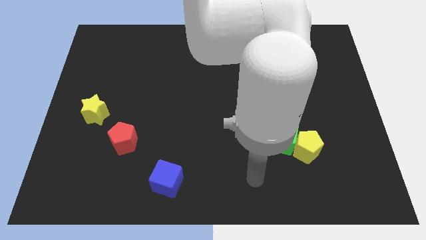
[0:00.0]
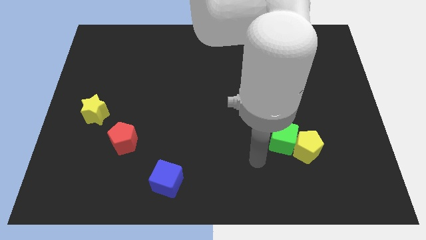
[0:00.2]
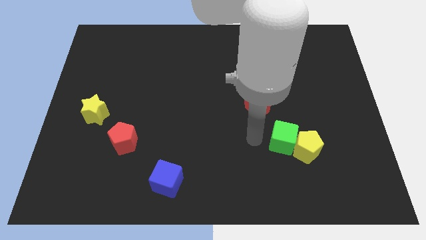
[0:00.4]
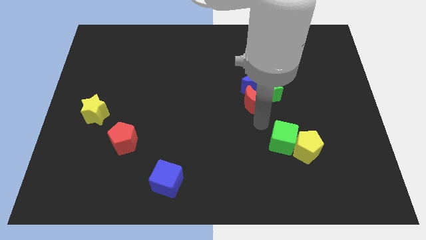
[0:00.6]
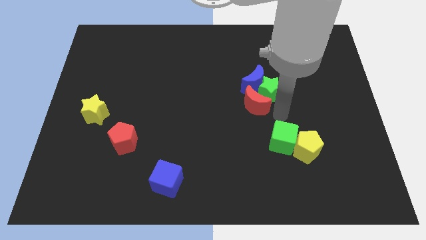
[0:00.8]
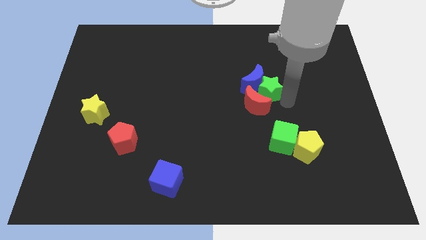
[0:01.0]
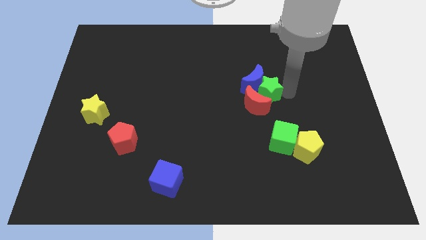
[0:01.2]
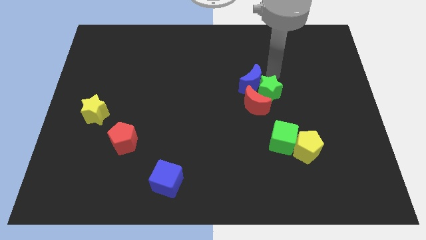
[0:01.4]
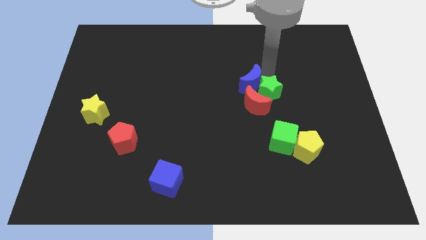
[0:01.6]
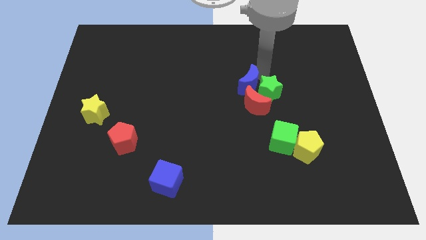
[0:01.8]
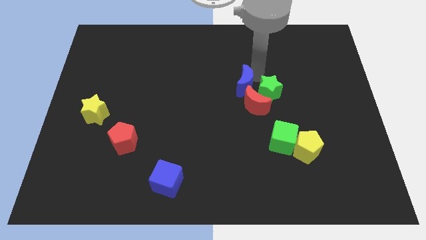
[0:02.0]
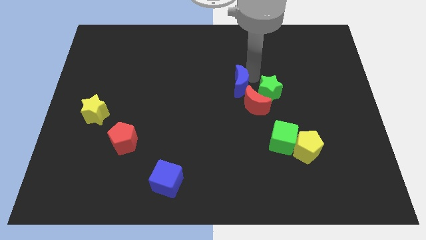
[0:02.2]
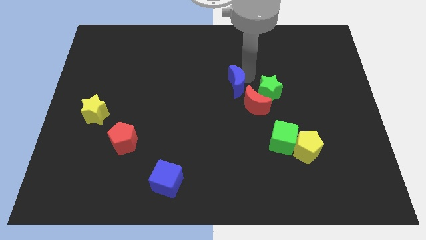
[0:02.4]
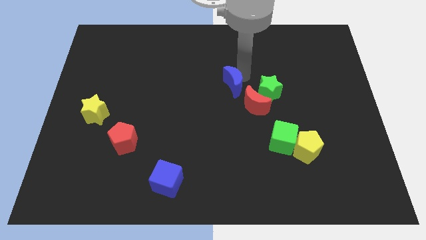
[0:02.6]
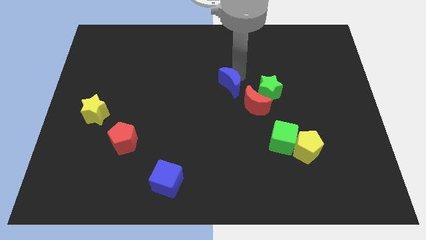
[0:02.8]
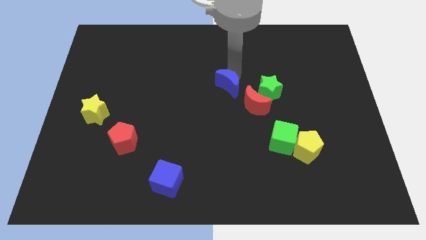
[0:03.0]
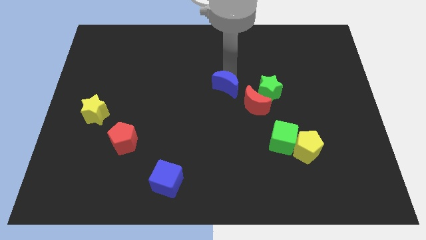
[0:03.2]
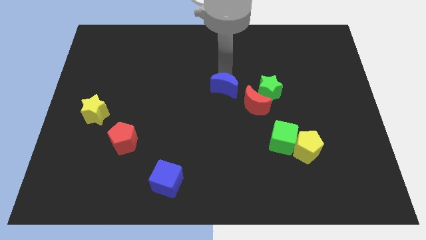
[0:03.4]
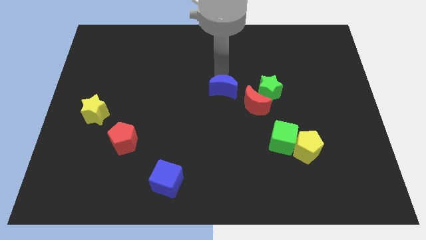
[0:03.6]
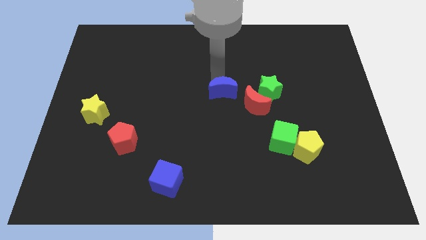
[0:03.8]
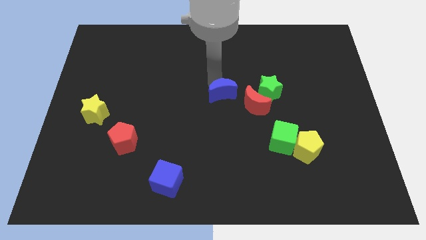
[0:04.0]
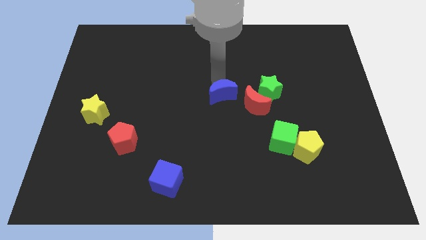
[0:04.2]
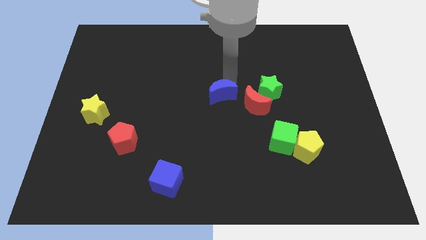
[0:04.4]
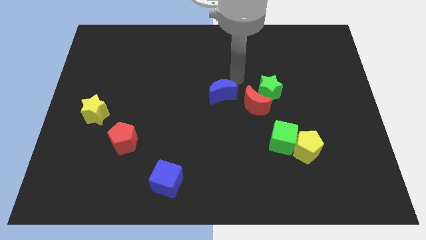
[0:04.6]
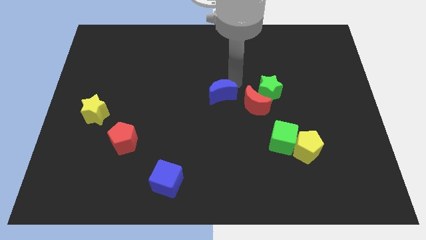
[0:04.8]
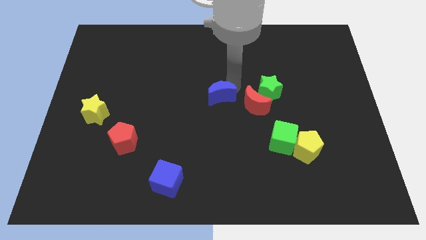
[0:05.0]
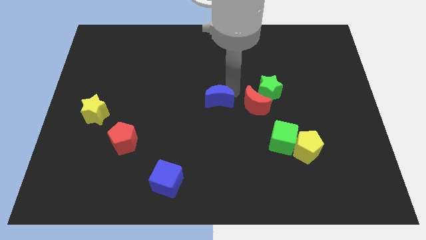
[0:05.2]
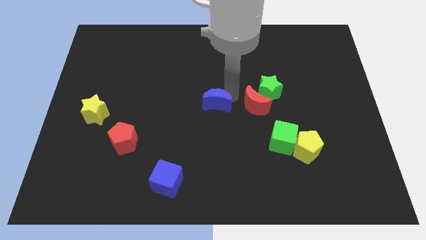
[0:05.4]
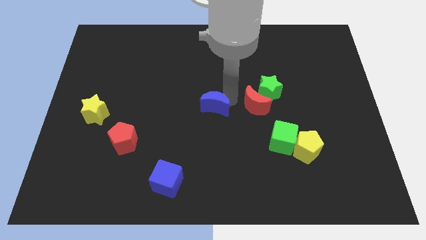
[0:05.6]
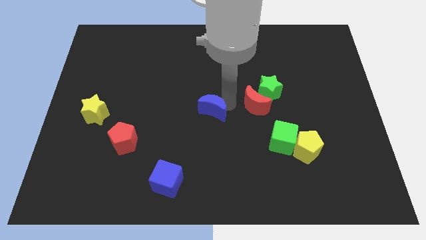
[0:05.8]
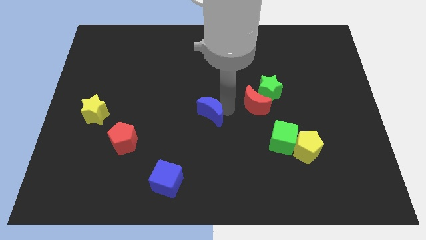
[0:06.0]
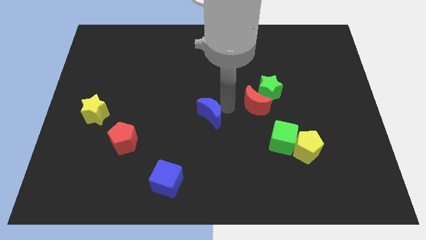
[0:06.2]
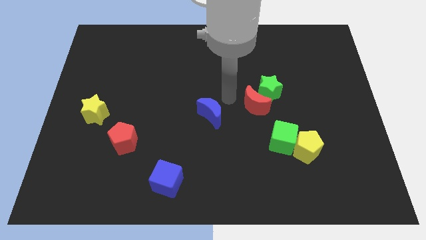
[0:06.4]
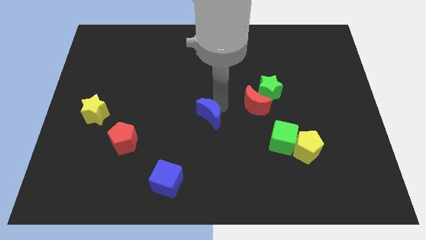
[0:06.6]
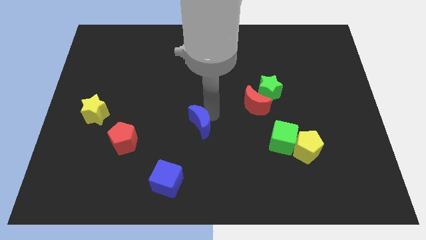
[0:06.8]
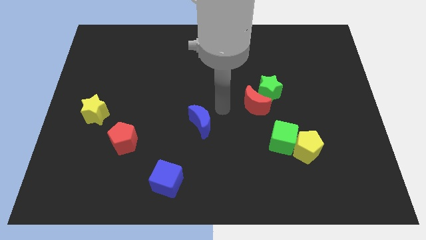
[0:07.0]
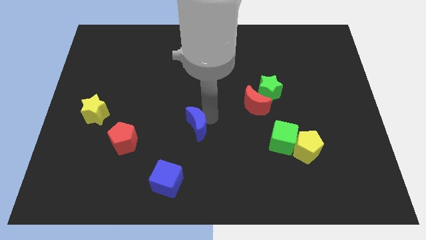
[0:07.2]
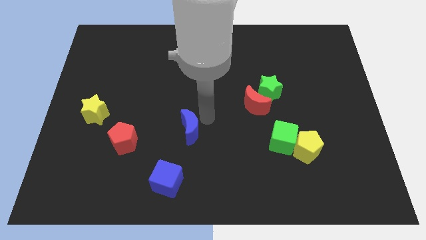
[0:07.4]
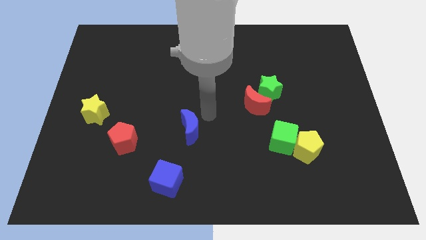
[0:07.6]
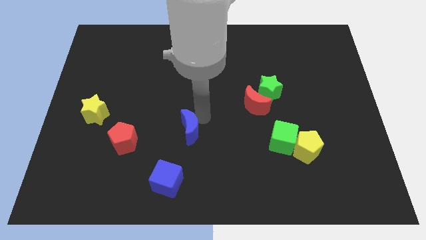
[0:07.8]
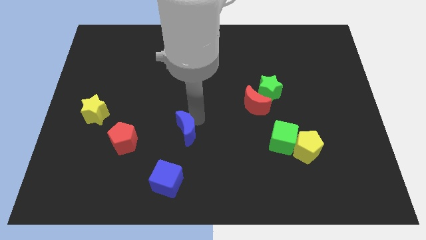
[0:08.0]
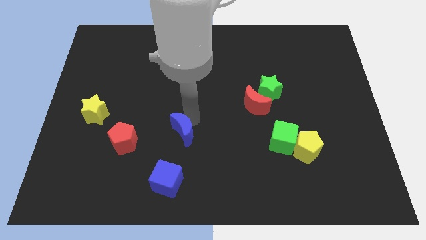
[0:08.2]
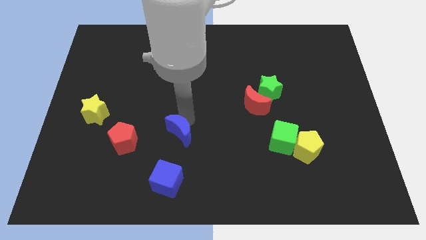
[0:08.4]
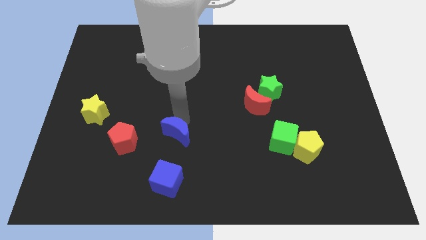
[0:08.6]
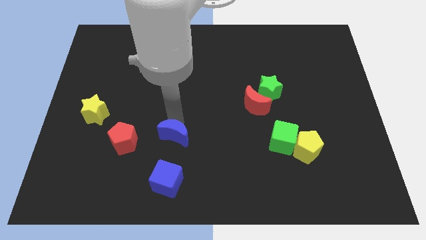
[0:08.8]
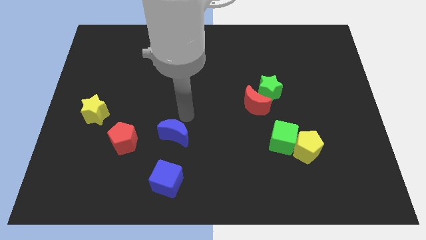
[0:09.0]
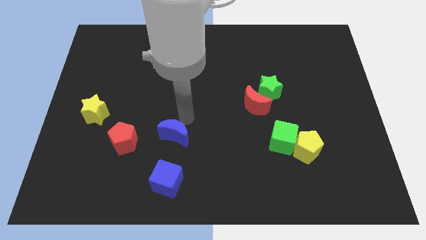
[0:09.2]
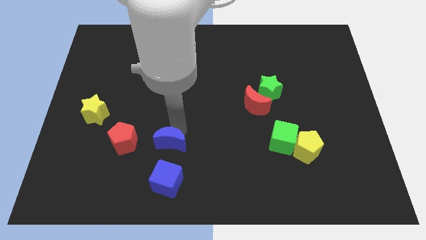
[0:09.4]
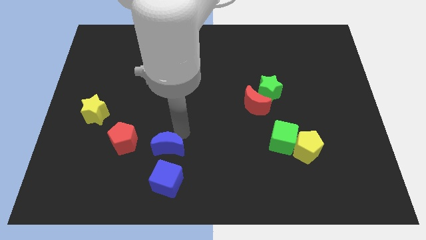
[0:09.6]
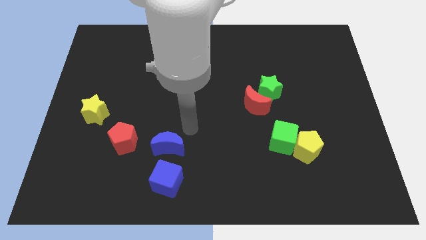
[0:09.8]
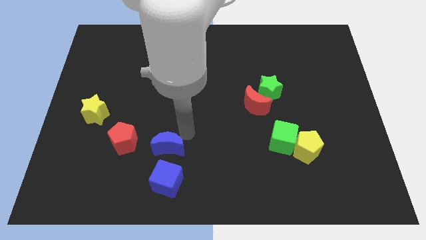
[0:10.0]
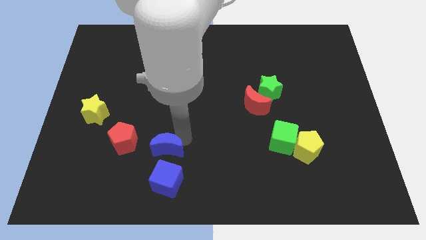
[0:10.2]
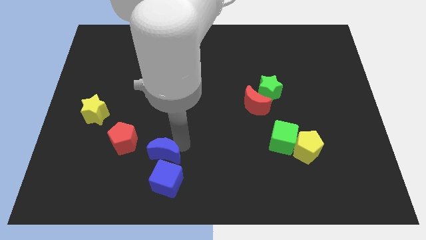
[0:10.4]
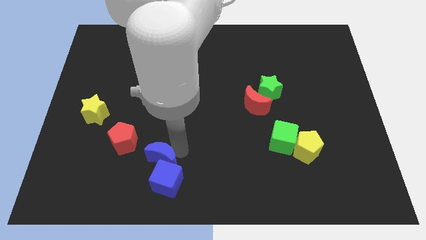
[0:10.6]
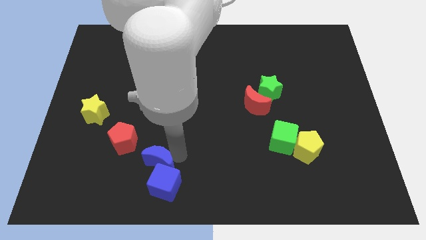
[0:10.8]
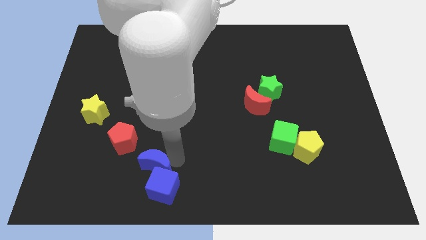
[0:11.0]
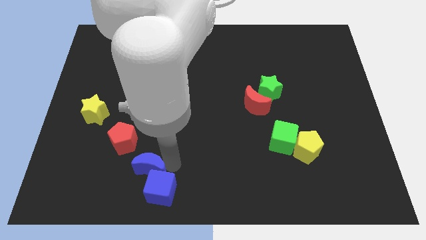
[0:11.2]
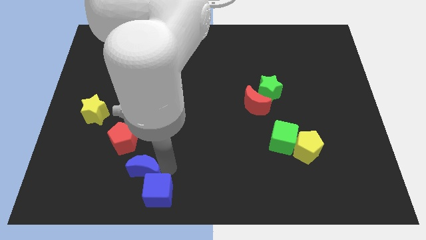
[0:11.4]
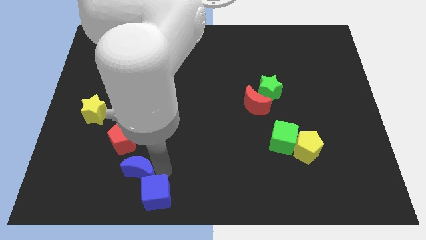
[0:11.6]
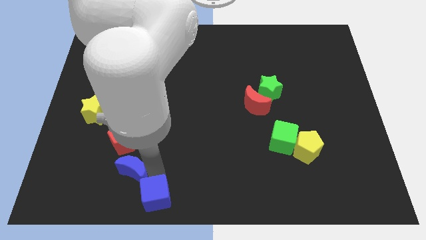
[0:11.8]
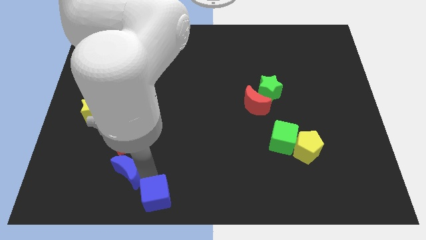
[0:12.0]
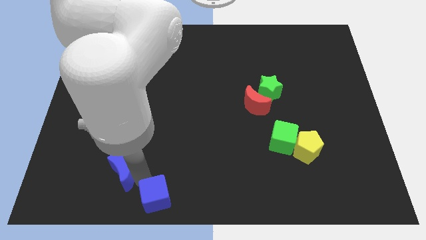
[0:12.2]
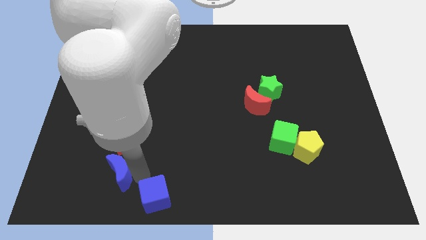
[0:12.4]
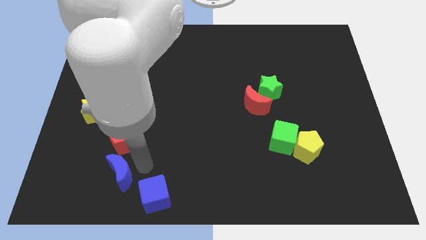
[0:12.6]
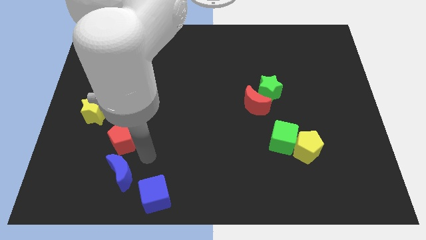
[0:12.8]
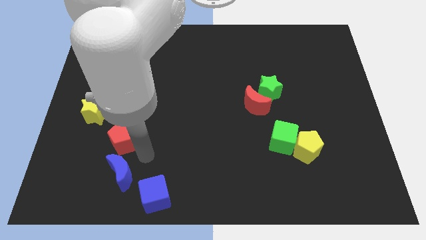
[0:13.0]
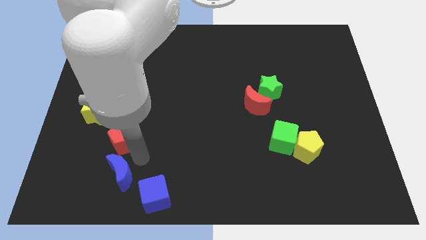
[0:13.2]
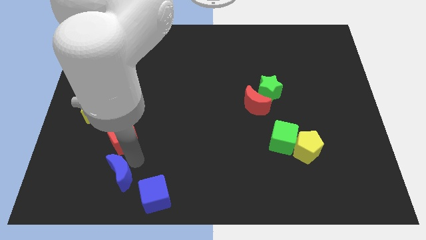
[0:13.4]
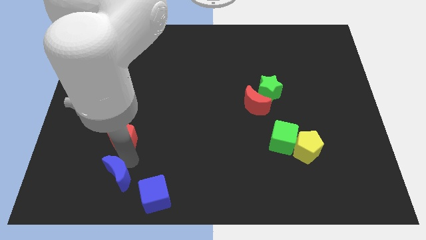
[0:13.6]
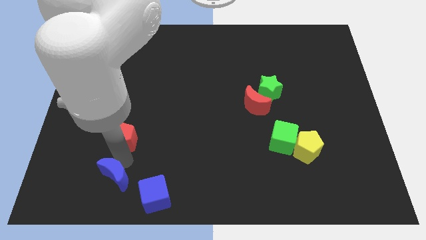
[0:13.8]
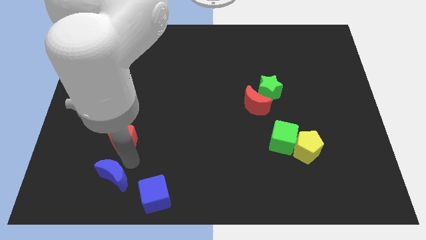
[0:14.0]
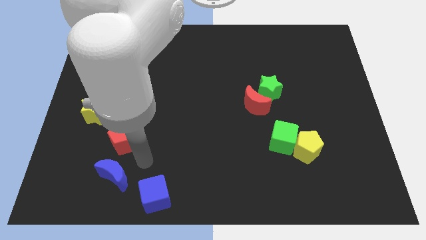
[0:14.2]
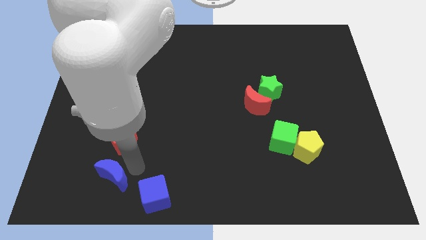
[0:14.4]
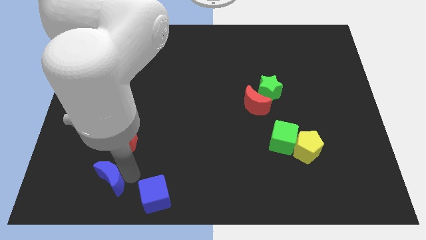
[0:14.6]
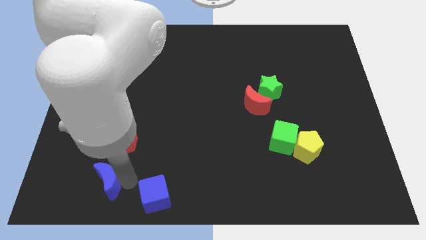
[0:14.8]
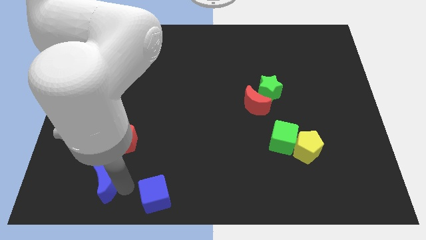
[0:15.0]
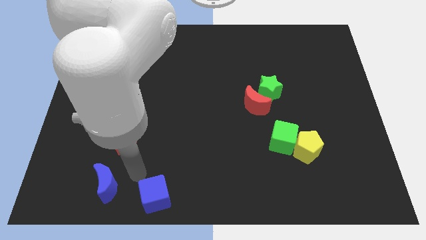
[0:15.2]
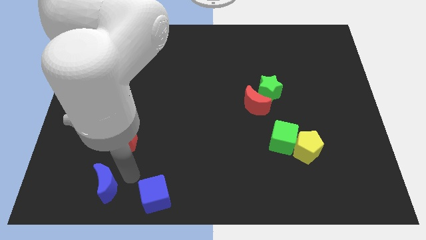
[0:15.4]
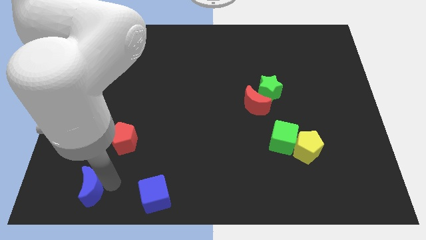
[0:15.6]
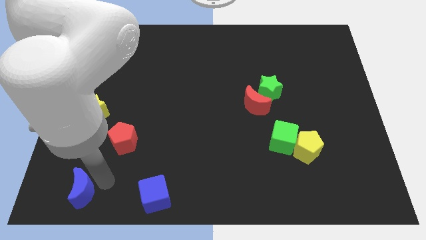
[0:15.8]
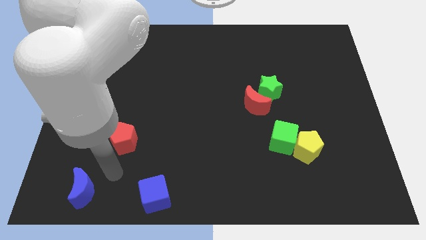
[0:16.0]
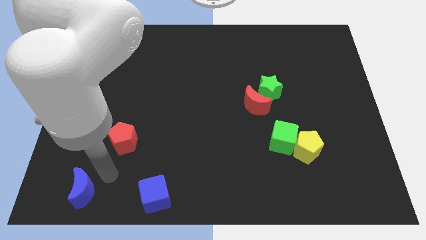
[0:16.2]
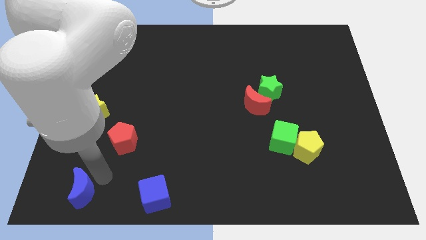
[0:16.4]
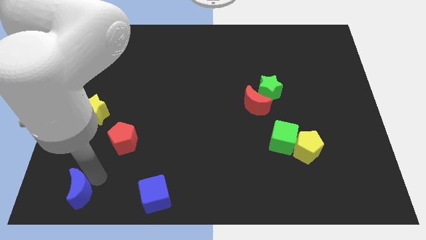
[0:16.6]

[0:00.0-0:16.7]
slide the blue moon to the bottom left
